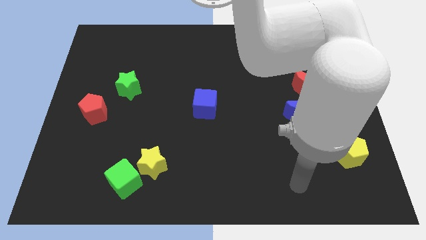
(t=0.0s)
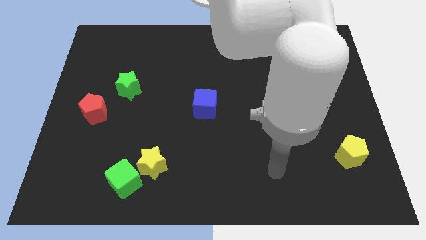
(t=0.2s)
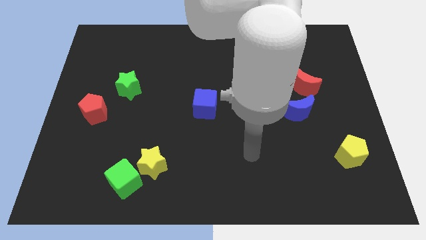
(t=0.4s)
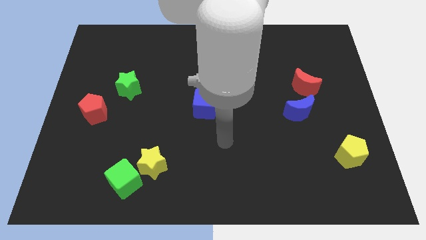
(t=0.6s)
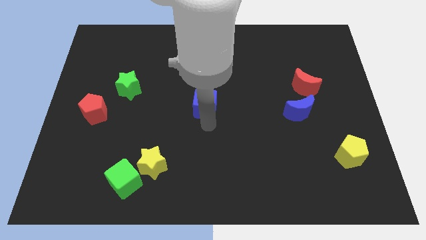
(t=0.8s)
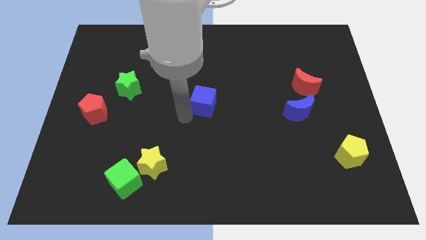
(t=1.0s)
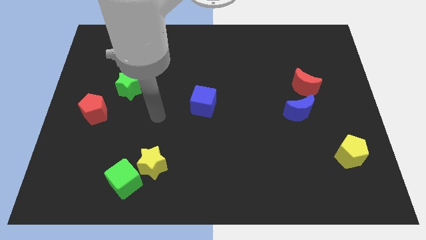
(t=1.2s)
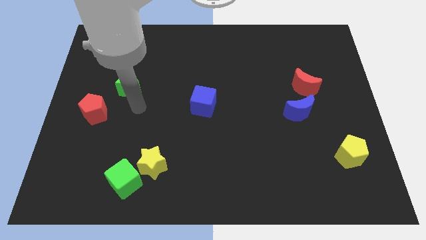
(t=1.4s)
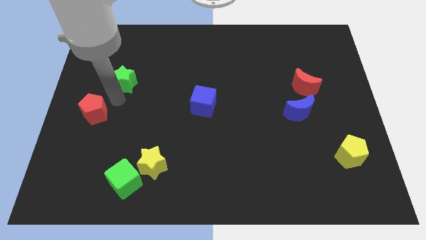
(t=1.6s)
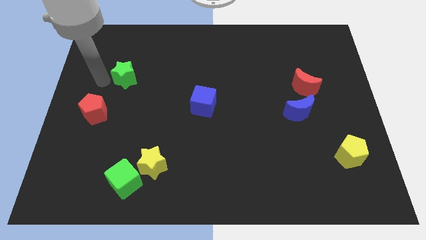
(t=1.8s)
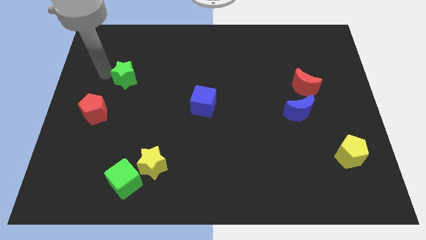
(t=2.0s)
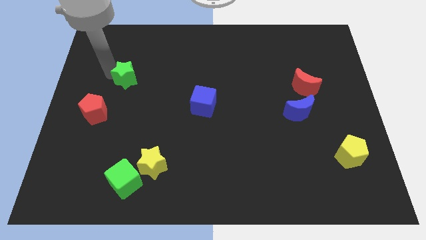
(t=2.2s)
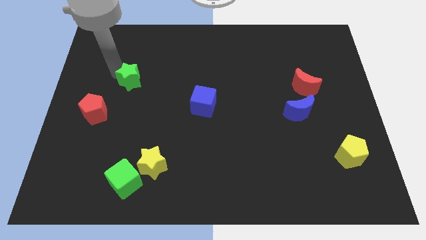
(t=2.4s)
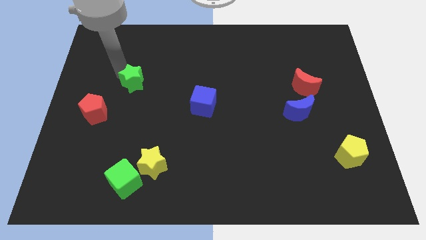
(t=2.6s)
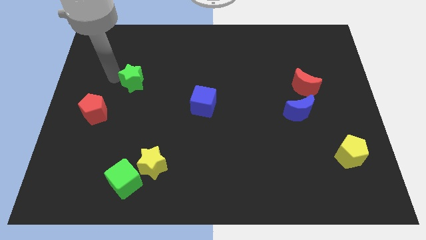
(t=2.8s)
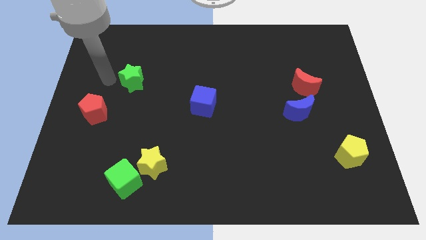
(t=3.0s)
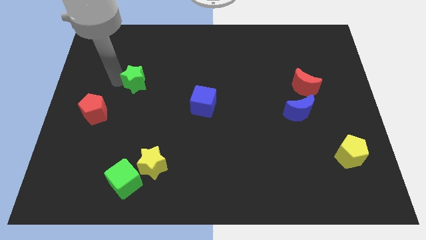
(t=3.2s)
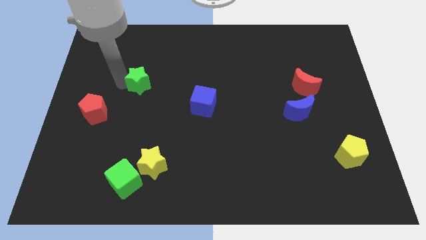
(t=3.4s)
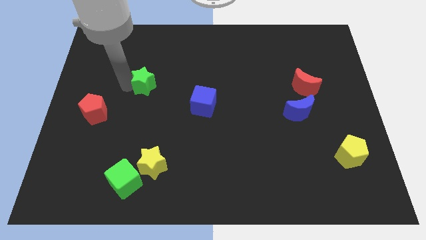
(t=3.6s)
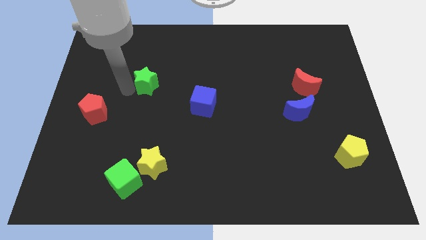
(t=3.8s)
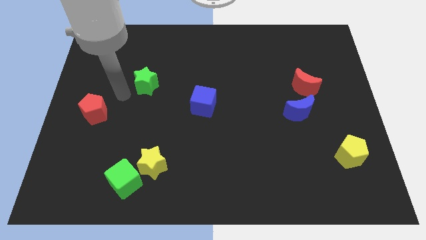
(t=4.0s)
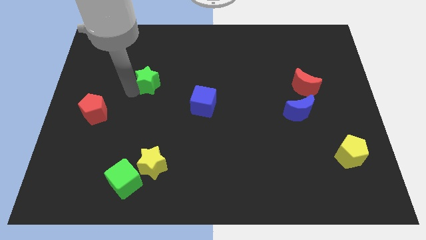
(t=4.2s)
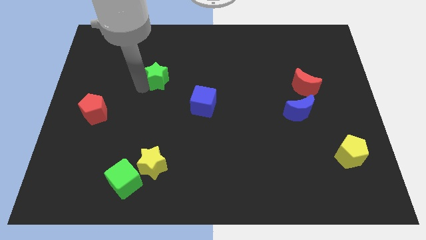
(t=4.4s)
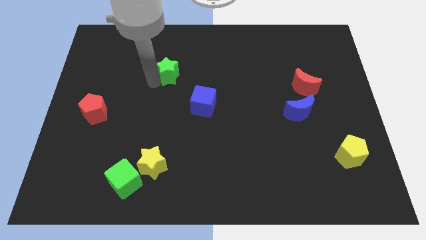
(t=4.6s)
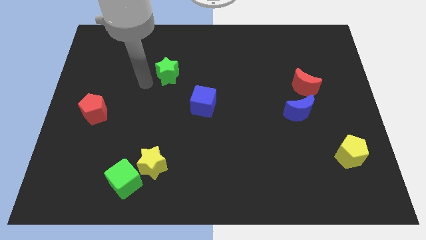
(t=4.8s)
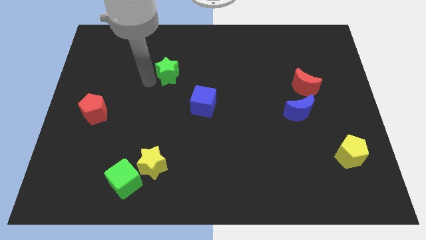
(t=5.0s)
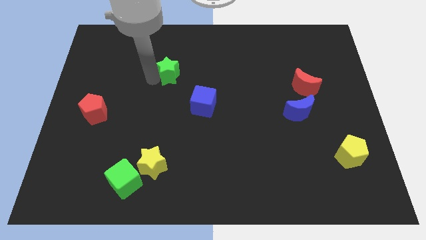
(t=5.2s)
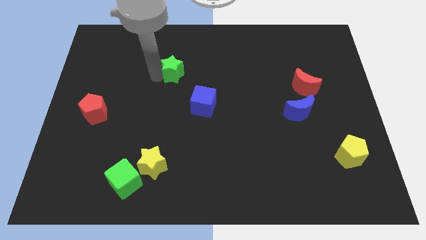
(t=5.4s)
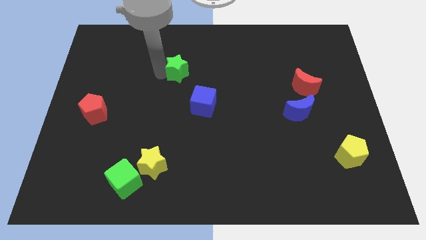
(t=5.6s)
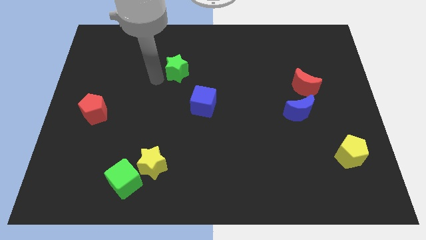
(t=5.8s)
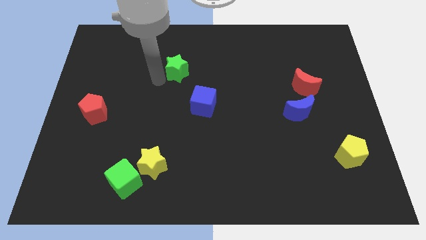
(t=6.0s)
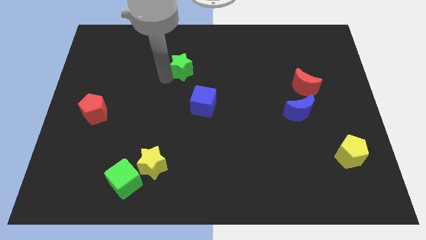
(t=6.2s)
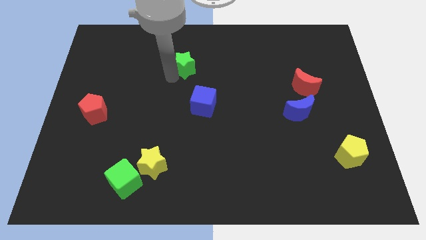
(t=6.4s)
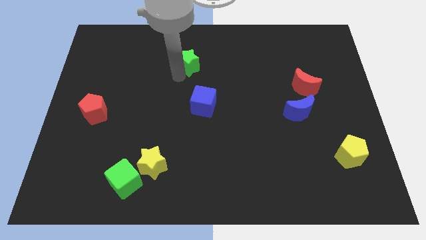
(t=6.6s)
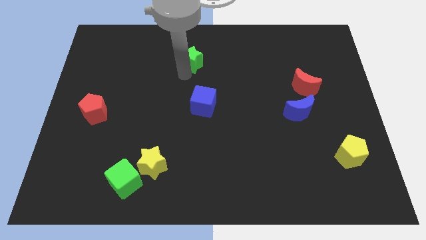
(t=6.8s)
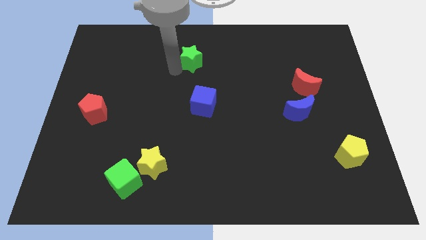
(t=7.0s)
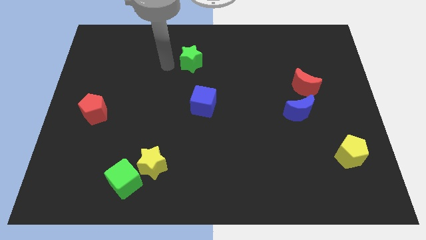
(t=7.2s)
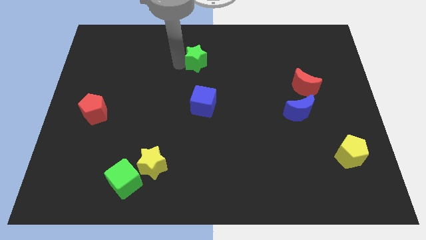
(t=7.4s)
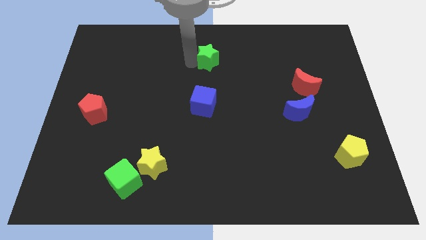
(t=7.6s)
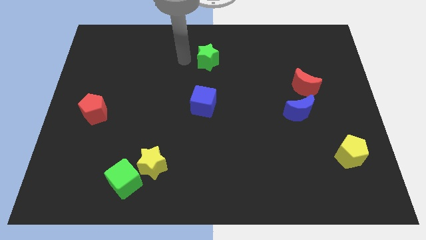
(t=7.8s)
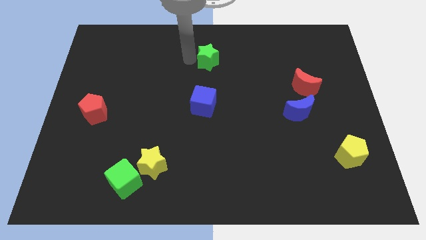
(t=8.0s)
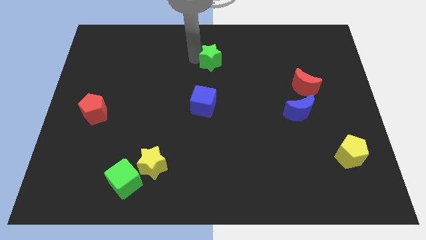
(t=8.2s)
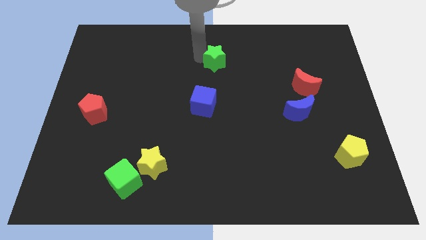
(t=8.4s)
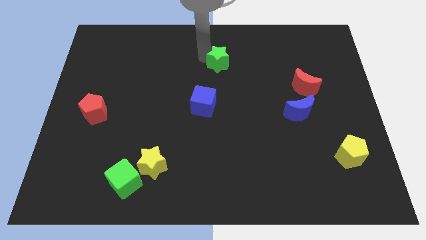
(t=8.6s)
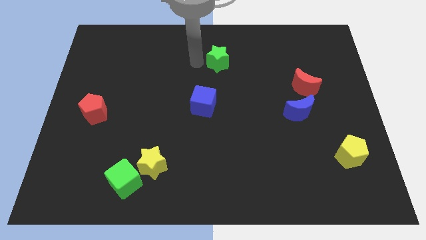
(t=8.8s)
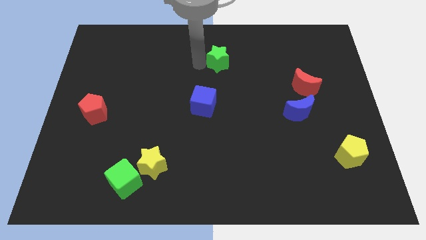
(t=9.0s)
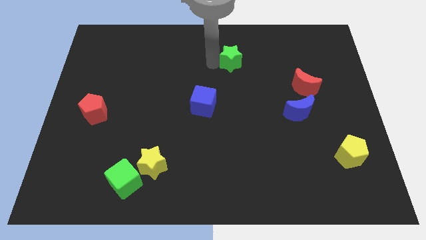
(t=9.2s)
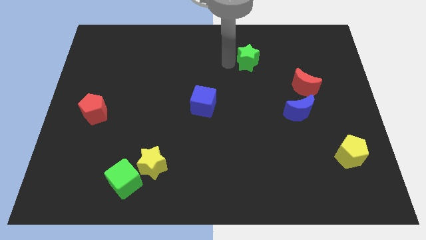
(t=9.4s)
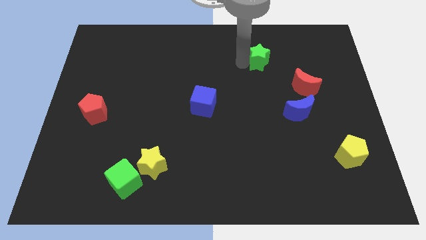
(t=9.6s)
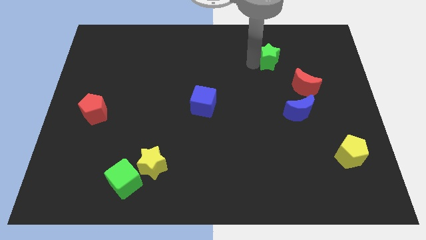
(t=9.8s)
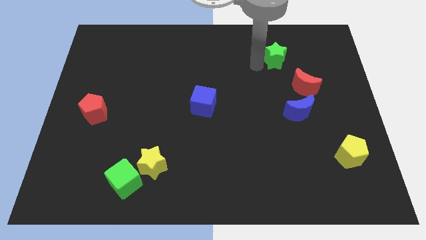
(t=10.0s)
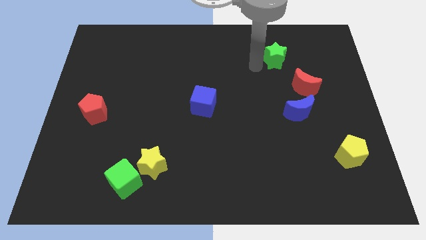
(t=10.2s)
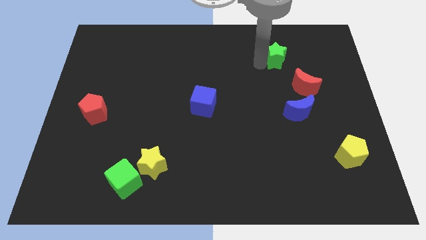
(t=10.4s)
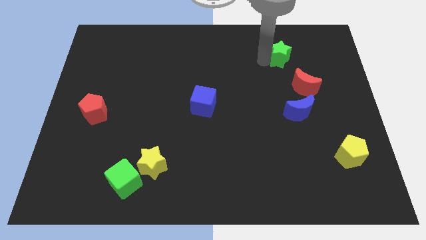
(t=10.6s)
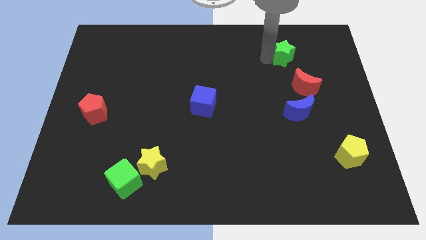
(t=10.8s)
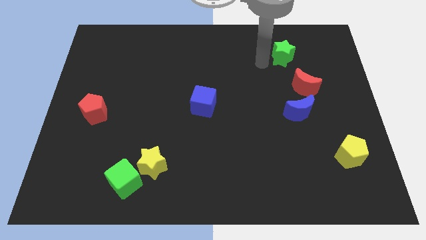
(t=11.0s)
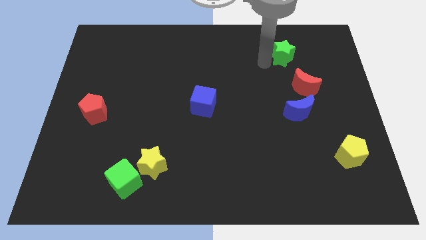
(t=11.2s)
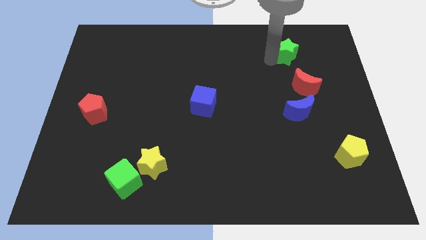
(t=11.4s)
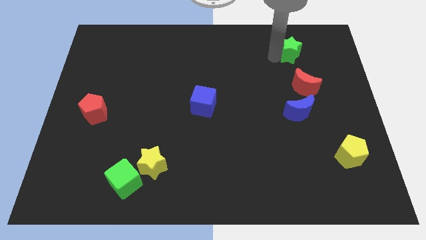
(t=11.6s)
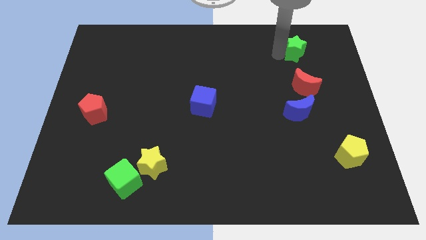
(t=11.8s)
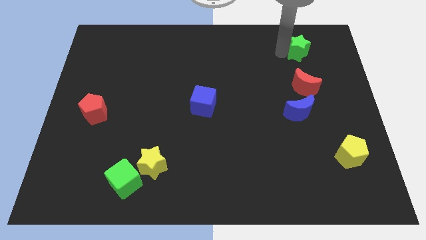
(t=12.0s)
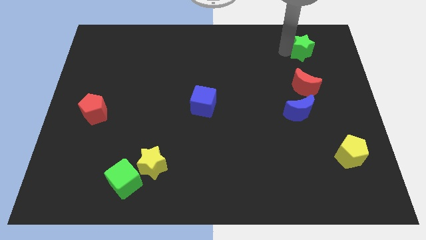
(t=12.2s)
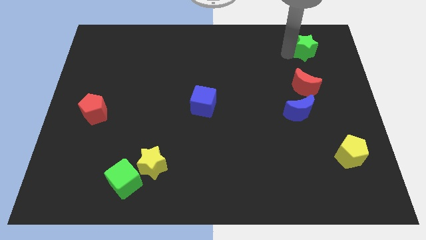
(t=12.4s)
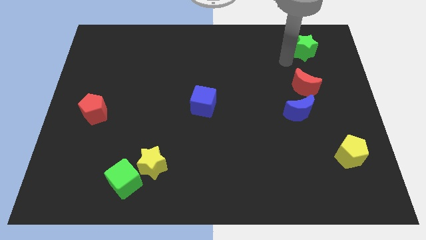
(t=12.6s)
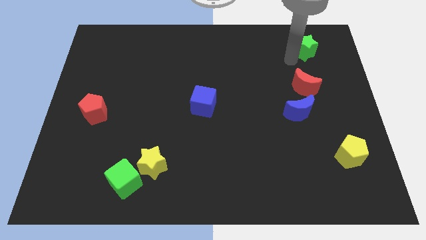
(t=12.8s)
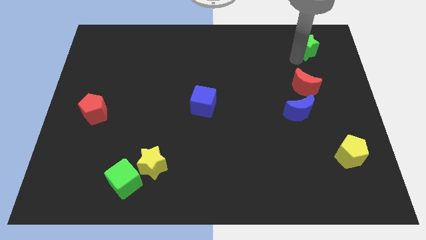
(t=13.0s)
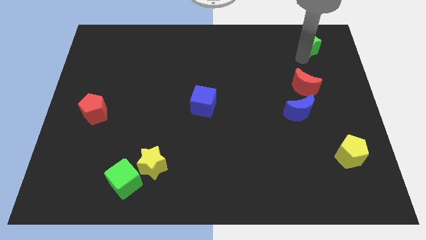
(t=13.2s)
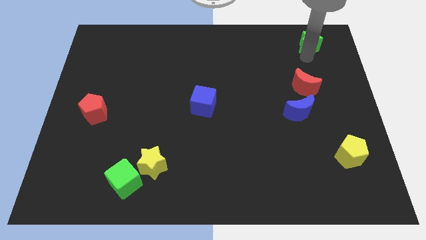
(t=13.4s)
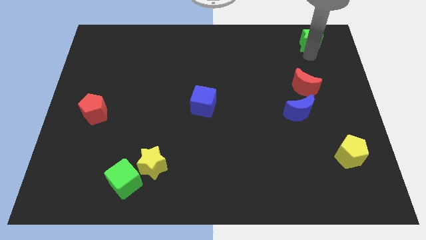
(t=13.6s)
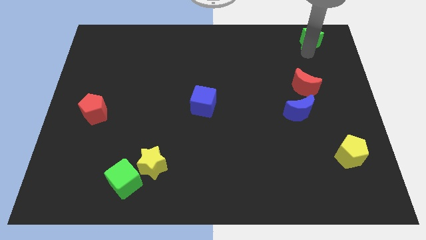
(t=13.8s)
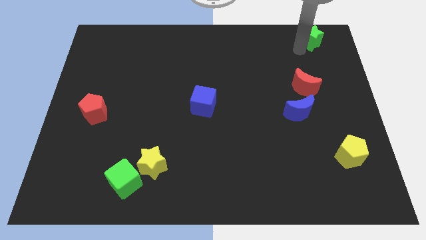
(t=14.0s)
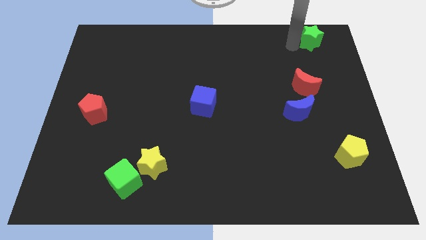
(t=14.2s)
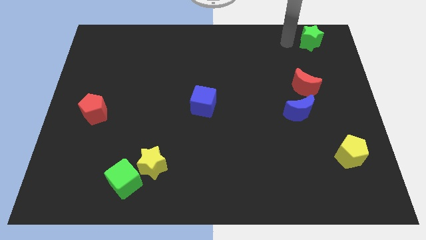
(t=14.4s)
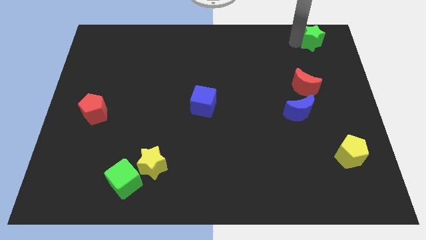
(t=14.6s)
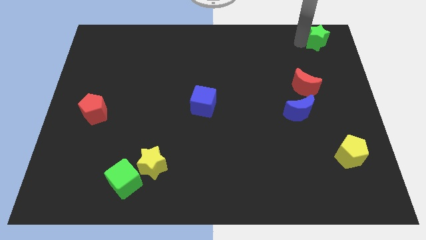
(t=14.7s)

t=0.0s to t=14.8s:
put the green star to the top right corner
